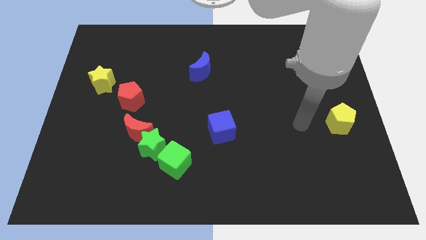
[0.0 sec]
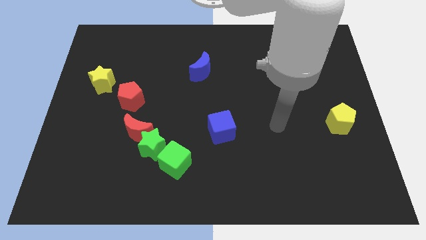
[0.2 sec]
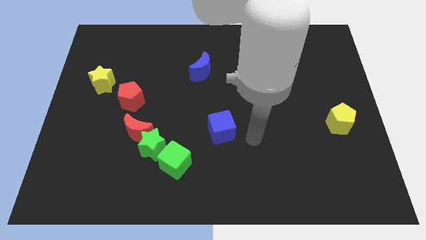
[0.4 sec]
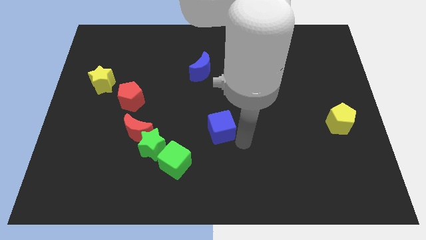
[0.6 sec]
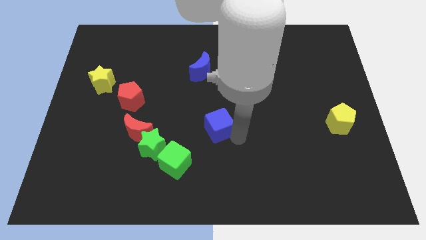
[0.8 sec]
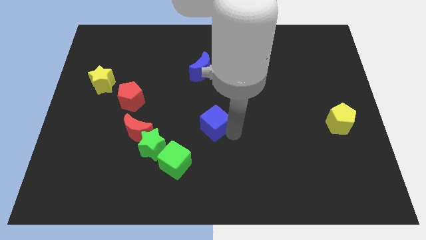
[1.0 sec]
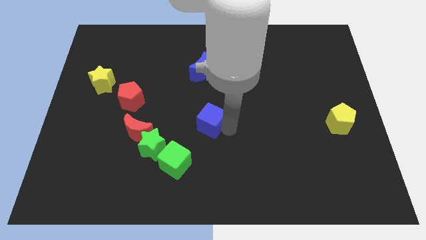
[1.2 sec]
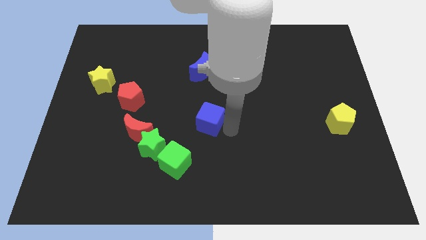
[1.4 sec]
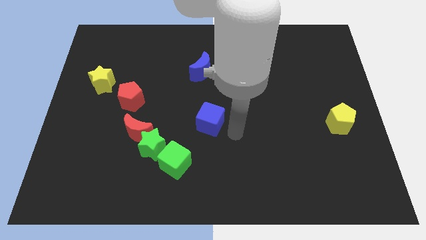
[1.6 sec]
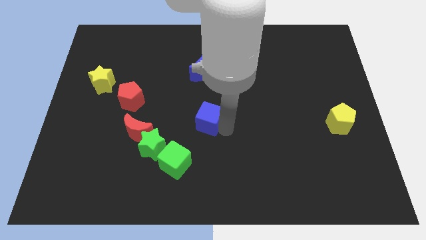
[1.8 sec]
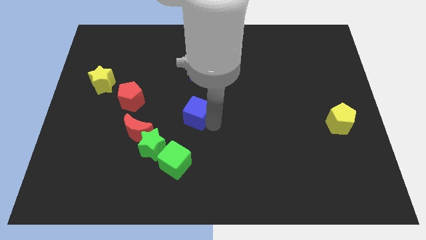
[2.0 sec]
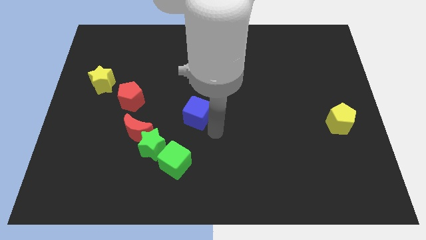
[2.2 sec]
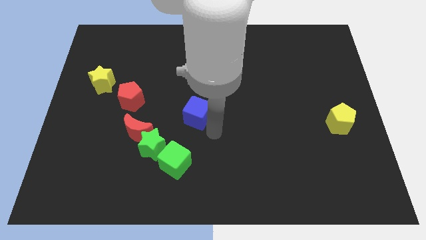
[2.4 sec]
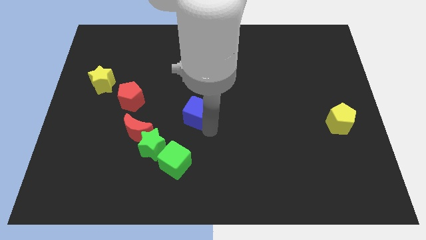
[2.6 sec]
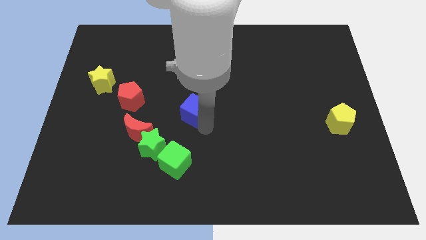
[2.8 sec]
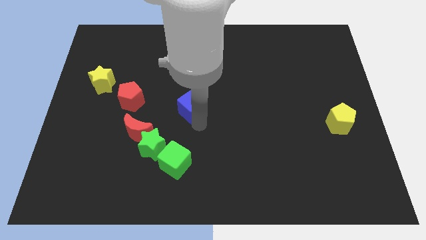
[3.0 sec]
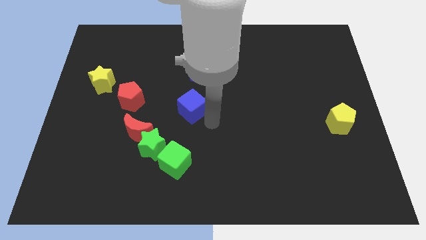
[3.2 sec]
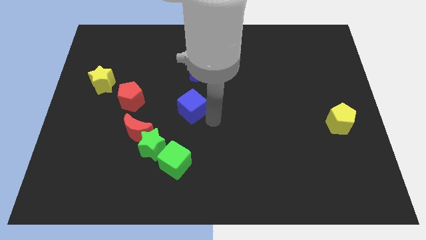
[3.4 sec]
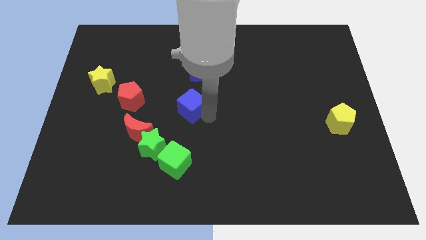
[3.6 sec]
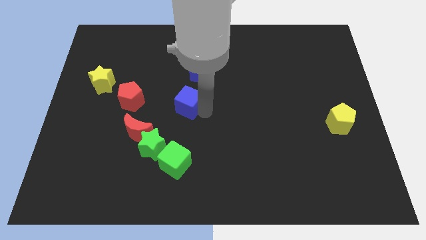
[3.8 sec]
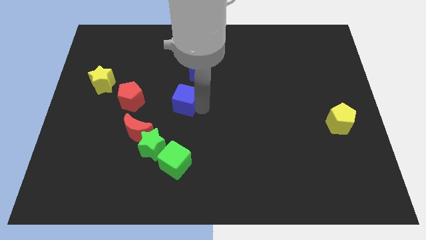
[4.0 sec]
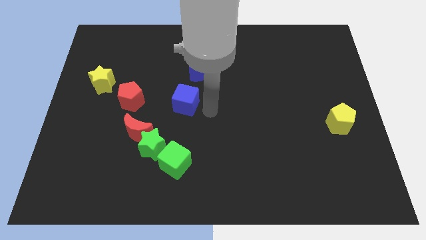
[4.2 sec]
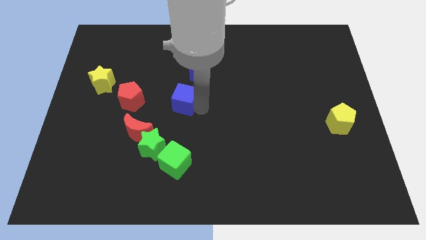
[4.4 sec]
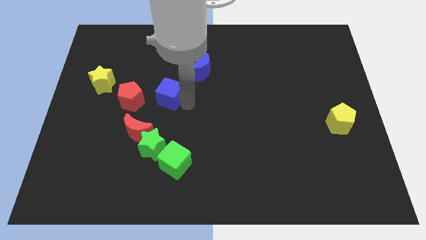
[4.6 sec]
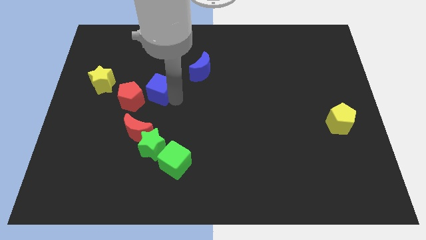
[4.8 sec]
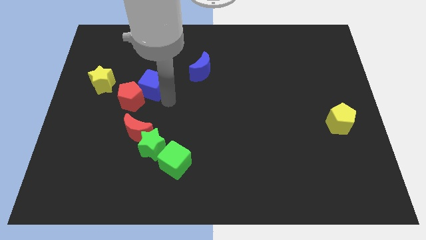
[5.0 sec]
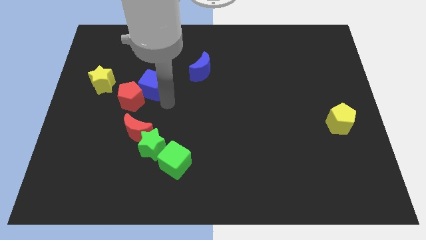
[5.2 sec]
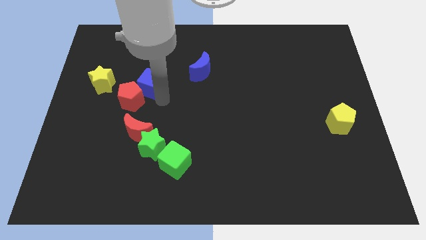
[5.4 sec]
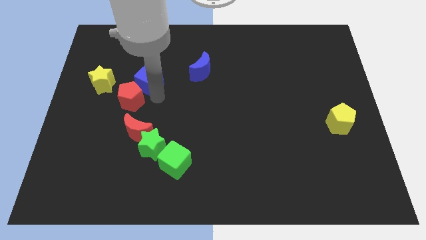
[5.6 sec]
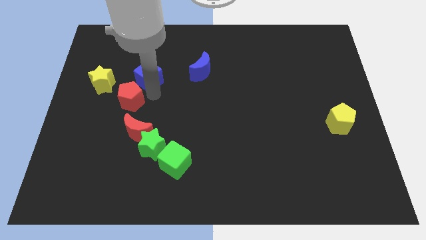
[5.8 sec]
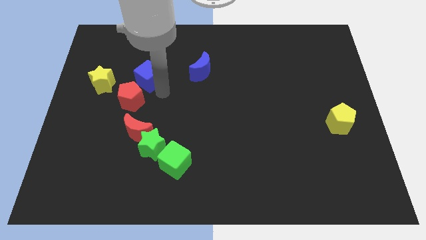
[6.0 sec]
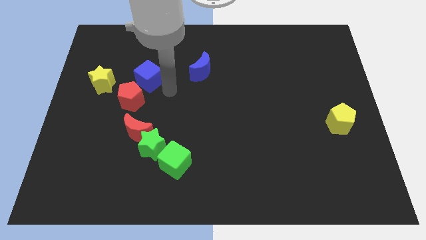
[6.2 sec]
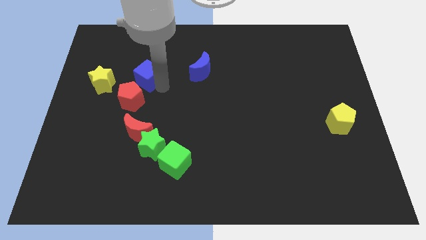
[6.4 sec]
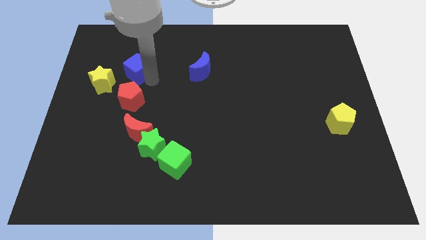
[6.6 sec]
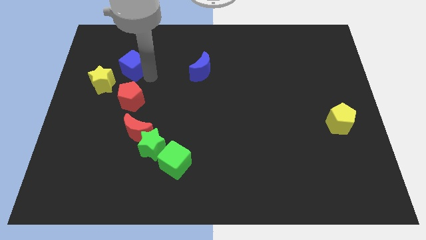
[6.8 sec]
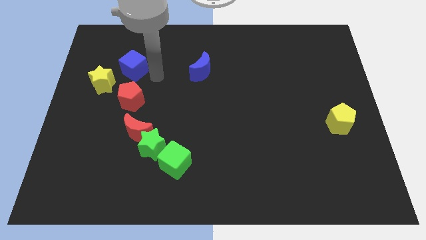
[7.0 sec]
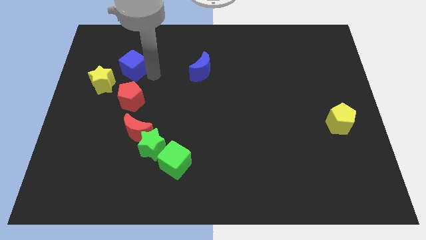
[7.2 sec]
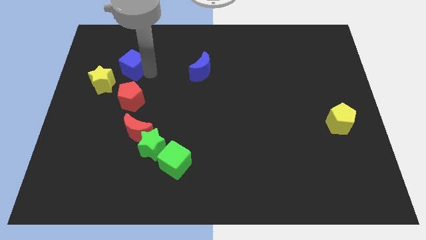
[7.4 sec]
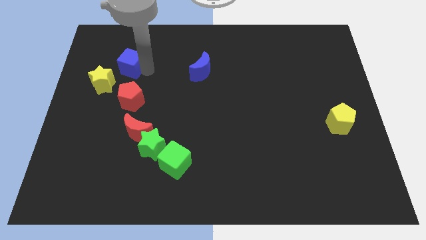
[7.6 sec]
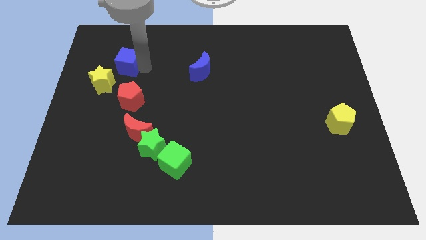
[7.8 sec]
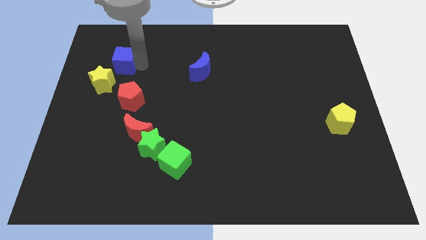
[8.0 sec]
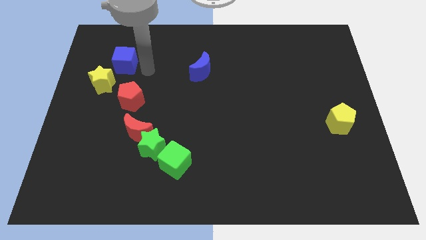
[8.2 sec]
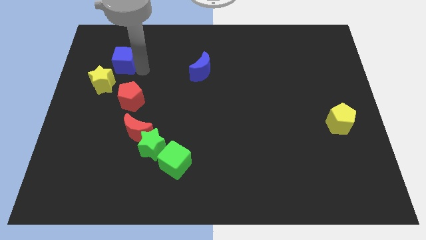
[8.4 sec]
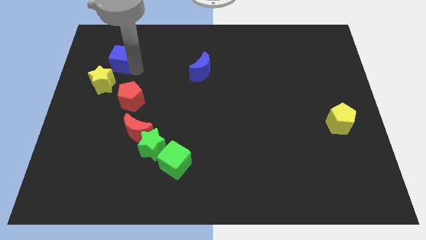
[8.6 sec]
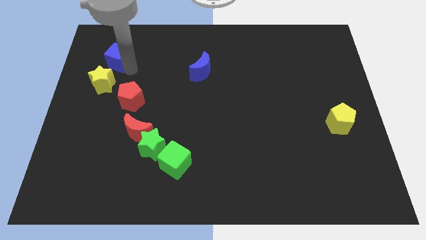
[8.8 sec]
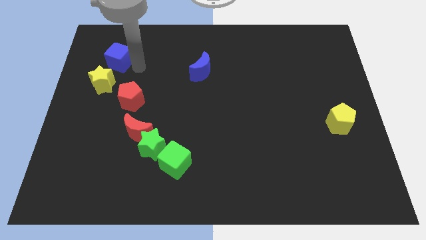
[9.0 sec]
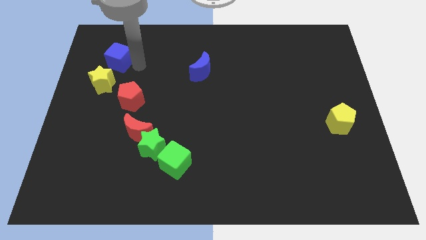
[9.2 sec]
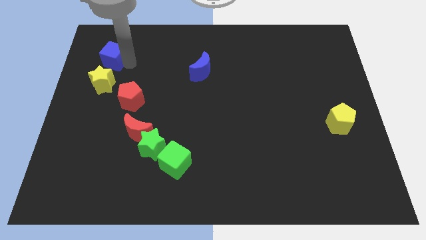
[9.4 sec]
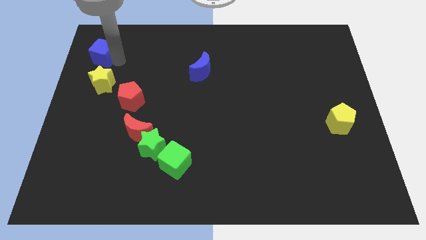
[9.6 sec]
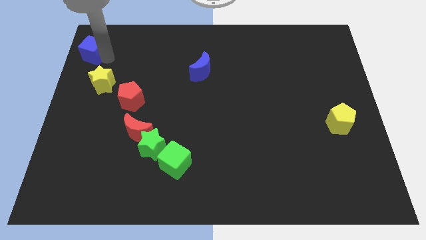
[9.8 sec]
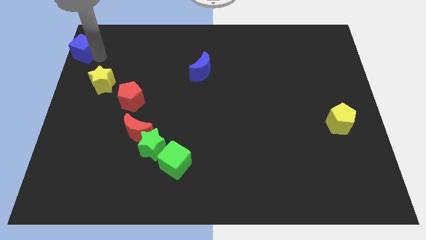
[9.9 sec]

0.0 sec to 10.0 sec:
put the blue cube to the top left of the board

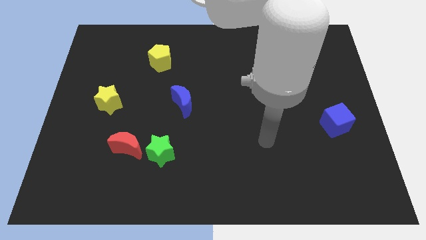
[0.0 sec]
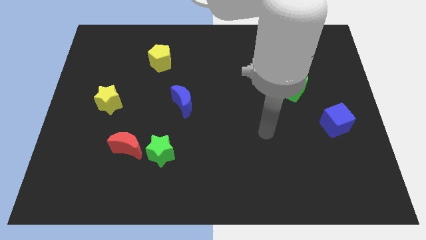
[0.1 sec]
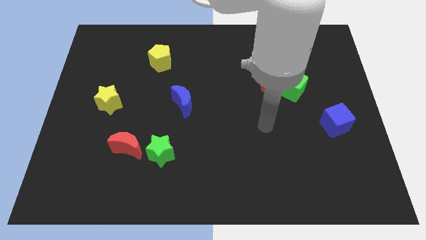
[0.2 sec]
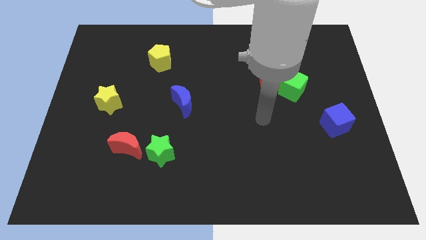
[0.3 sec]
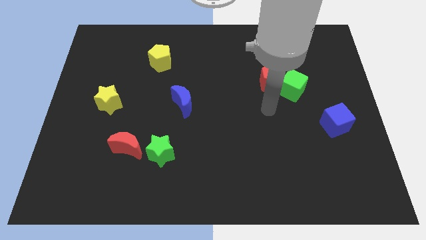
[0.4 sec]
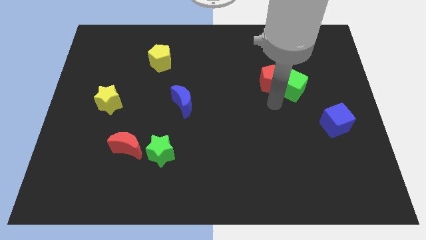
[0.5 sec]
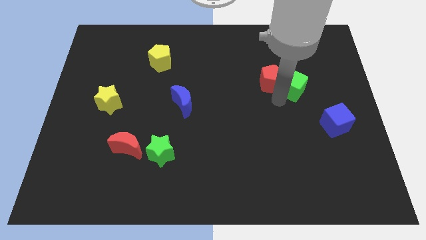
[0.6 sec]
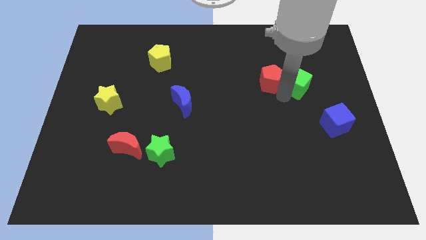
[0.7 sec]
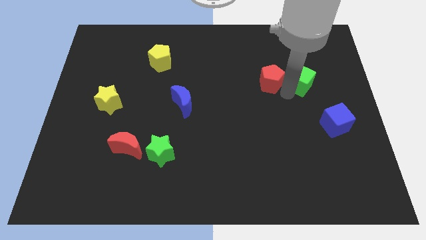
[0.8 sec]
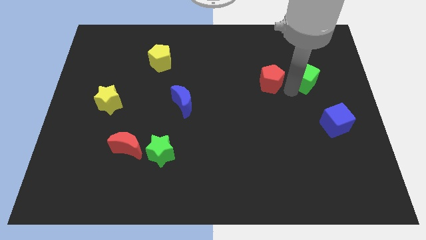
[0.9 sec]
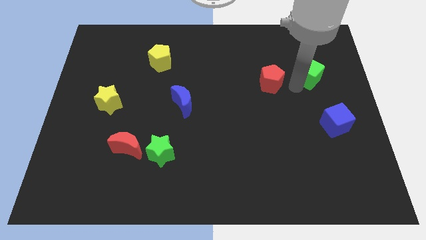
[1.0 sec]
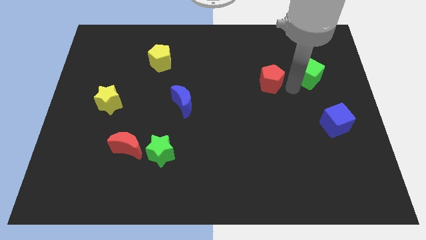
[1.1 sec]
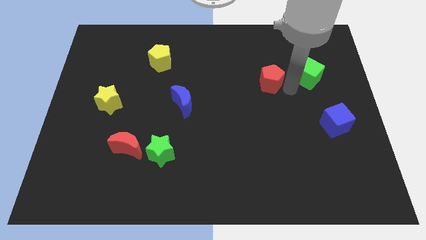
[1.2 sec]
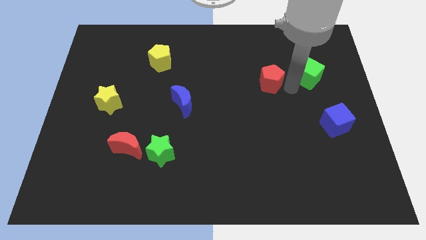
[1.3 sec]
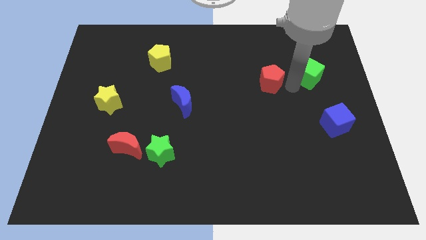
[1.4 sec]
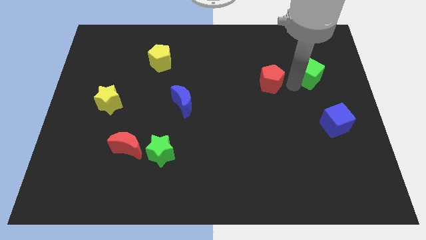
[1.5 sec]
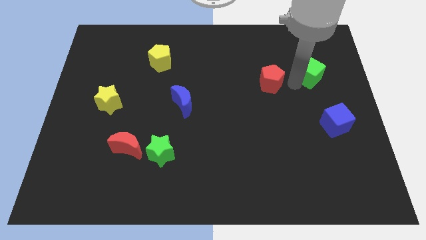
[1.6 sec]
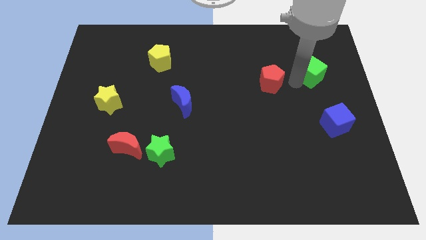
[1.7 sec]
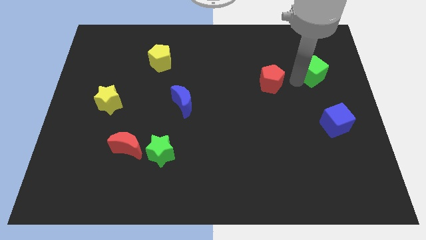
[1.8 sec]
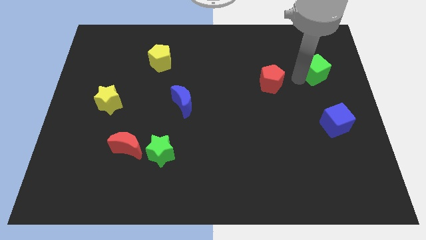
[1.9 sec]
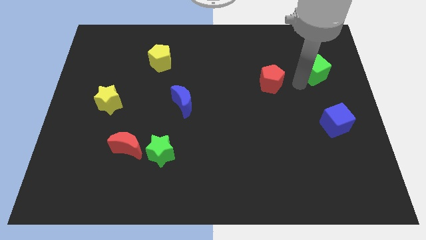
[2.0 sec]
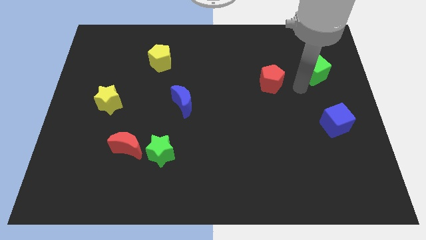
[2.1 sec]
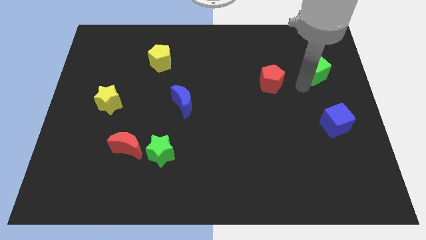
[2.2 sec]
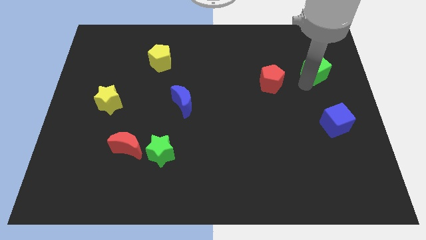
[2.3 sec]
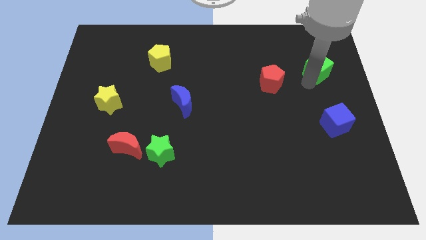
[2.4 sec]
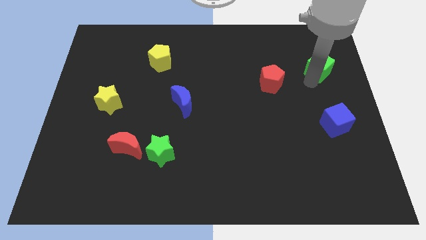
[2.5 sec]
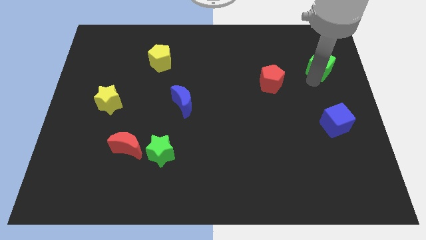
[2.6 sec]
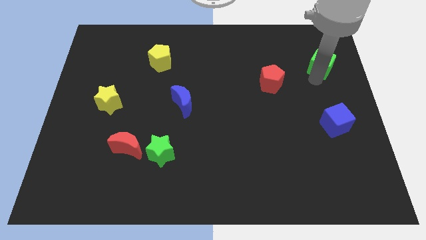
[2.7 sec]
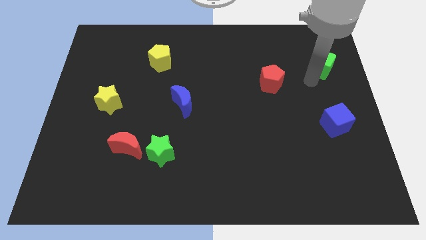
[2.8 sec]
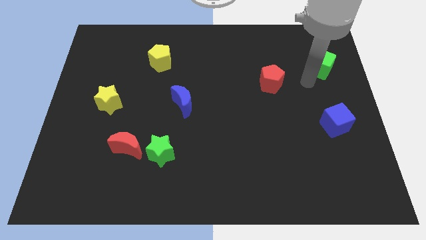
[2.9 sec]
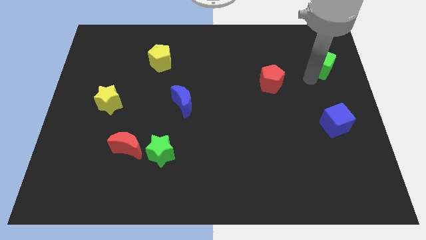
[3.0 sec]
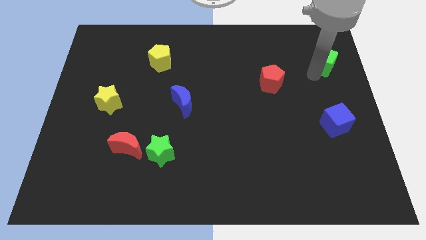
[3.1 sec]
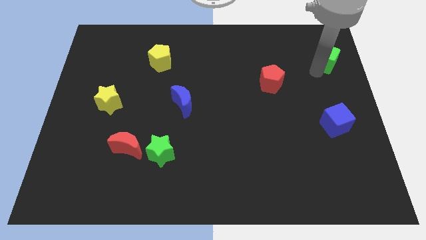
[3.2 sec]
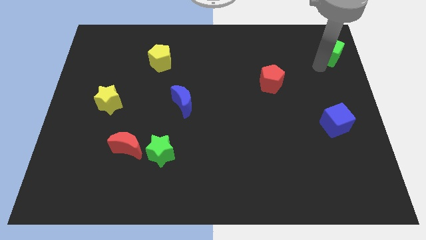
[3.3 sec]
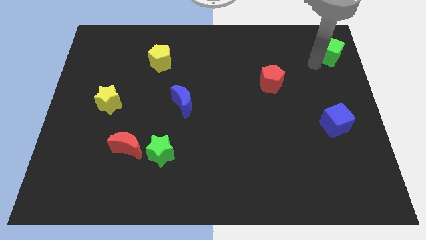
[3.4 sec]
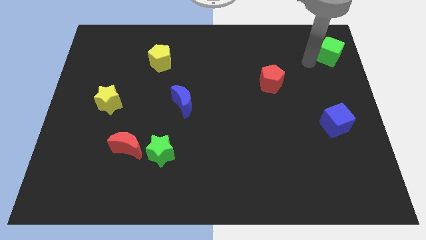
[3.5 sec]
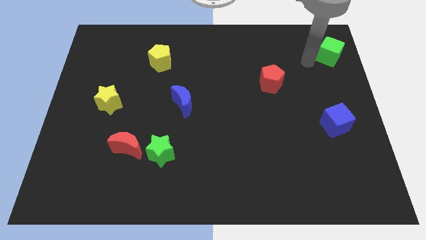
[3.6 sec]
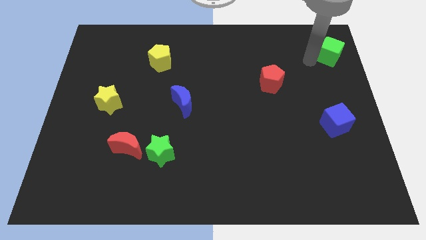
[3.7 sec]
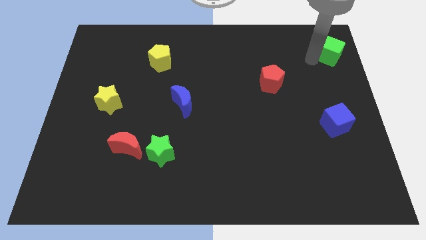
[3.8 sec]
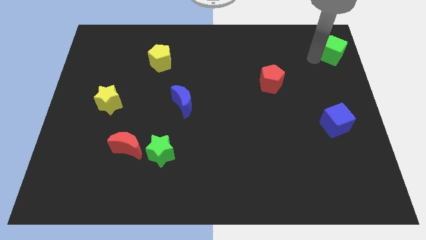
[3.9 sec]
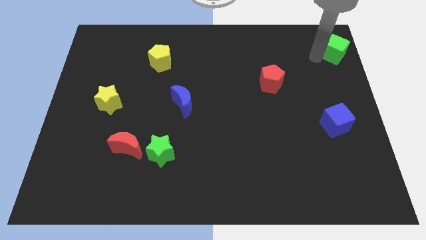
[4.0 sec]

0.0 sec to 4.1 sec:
move the green cube to the upper right corner
